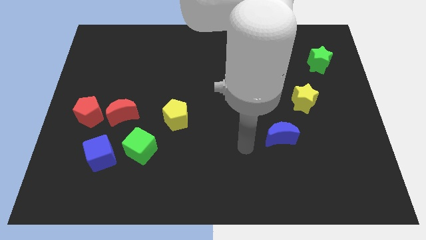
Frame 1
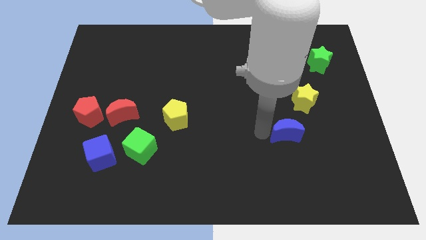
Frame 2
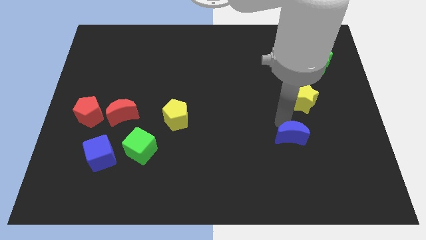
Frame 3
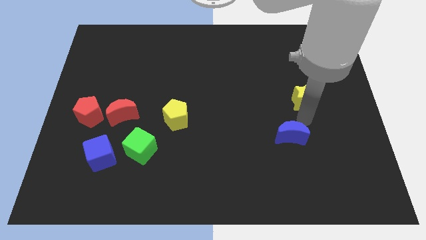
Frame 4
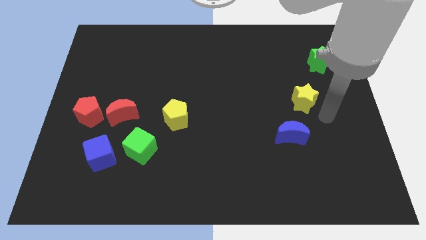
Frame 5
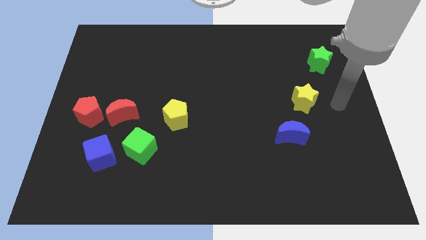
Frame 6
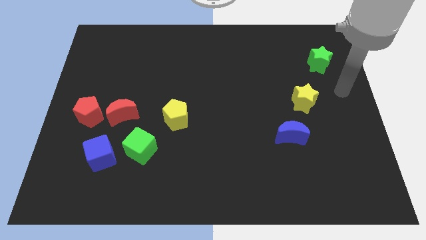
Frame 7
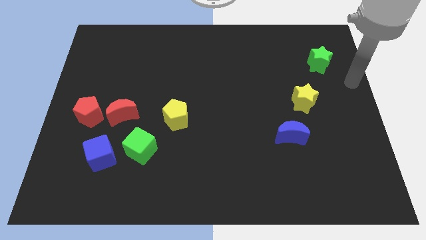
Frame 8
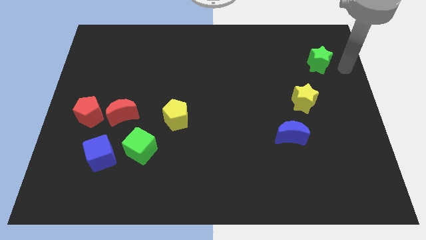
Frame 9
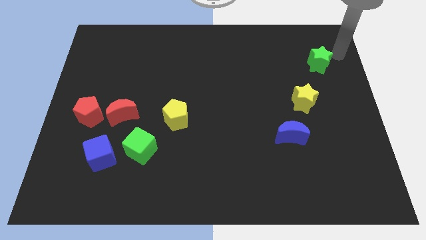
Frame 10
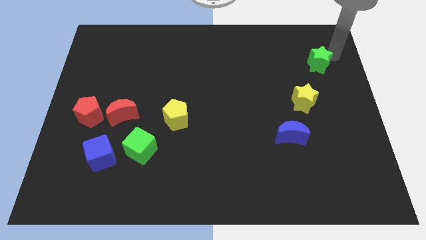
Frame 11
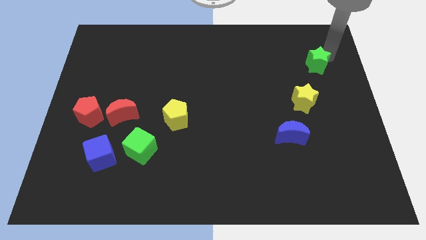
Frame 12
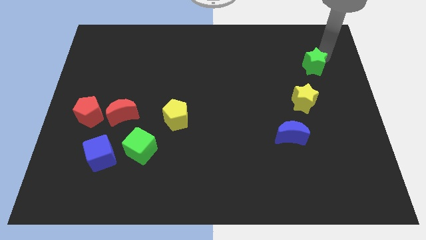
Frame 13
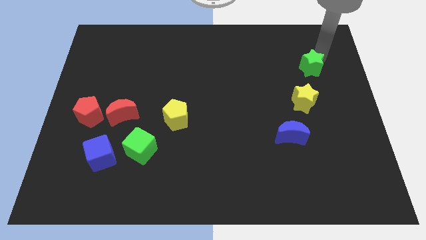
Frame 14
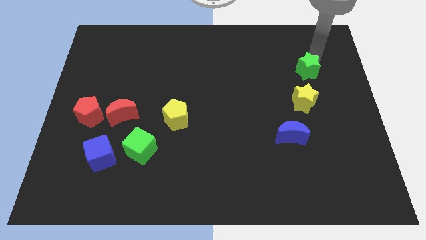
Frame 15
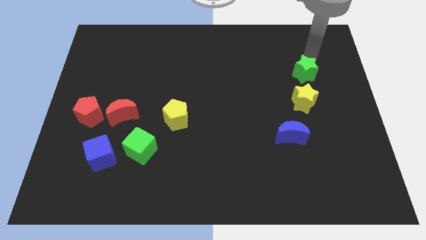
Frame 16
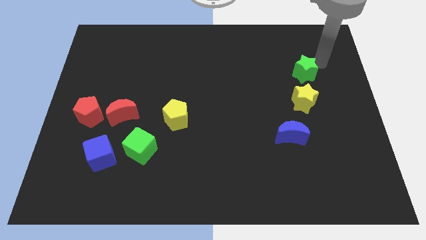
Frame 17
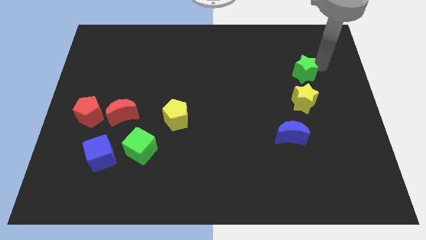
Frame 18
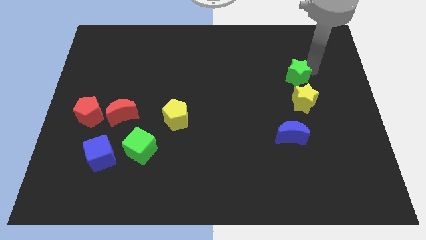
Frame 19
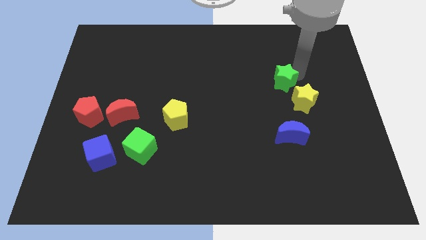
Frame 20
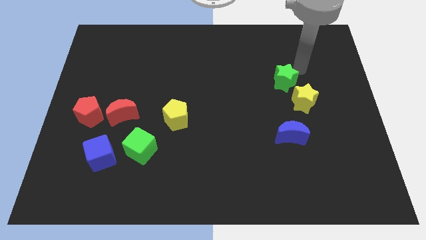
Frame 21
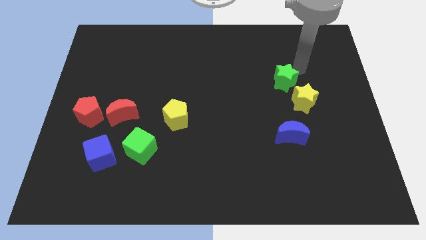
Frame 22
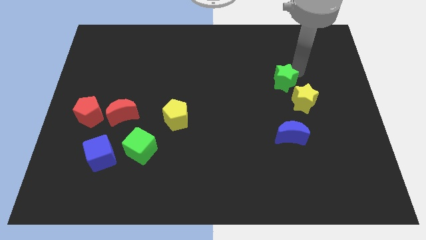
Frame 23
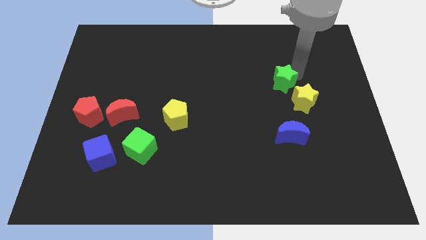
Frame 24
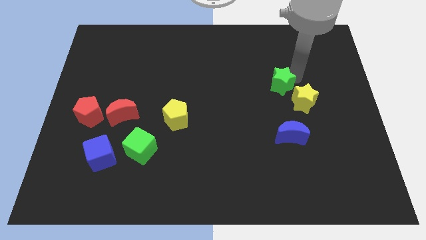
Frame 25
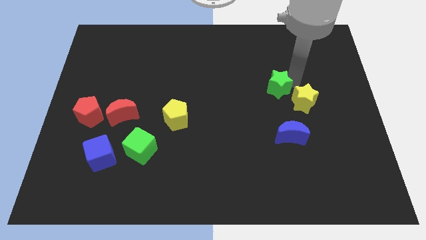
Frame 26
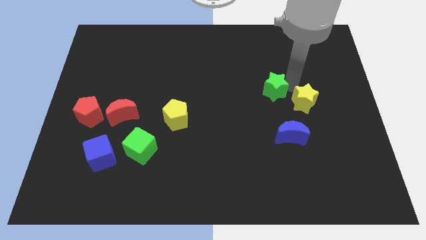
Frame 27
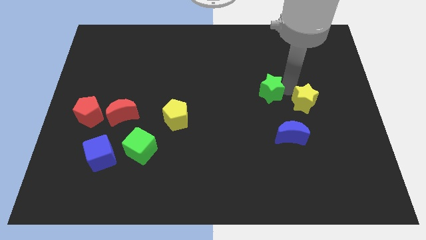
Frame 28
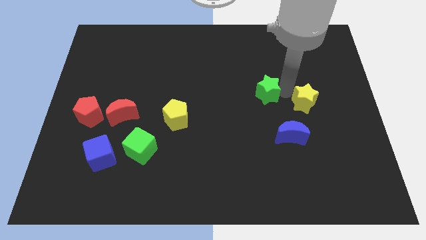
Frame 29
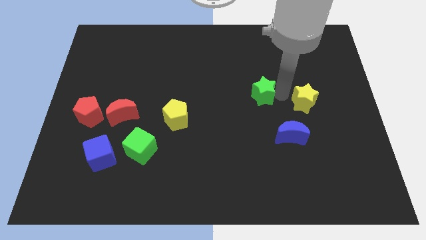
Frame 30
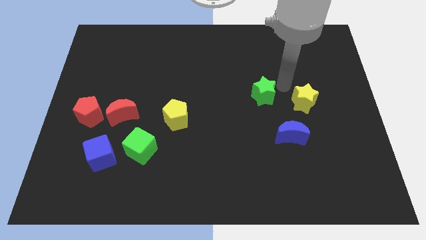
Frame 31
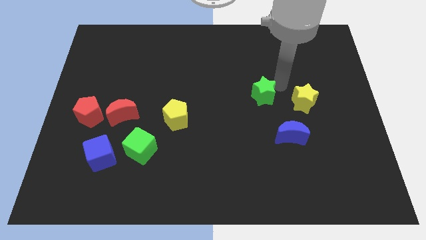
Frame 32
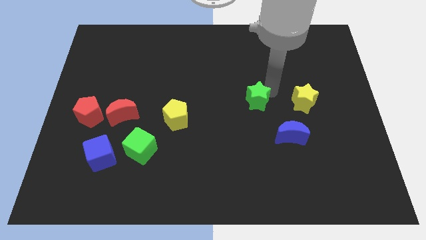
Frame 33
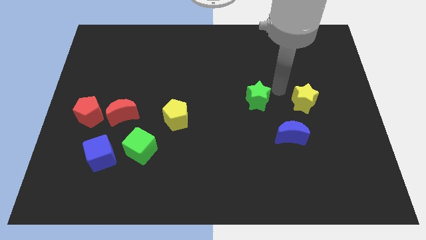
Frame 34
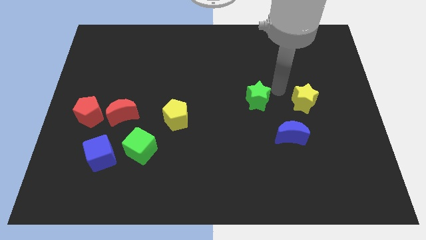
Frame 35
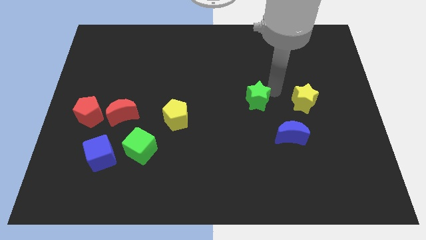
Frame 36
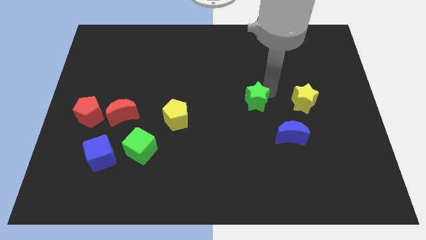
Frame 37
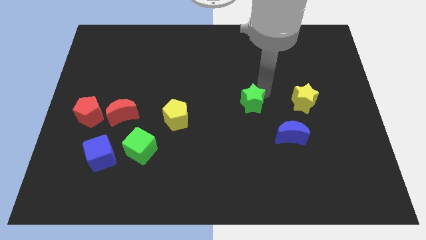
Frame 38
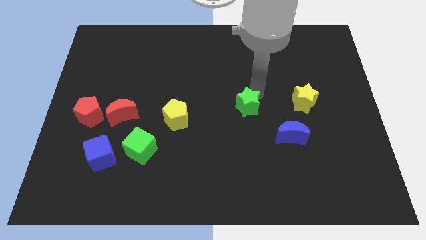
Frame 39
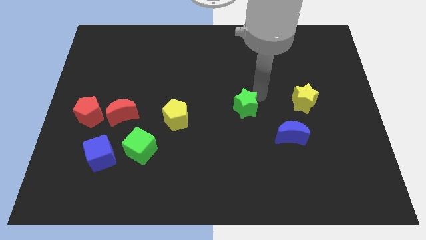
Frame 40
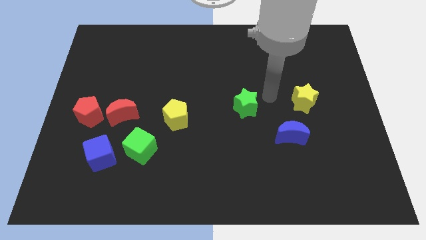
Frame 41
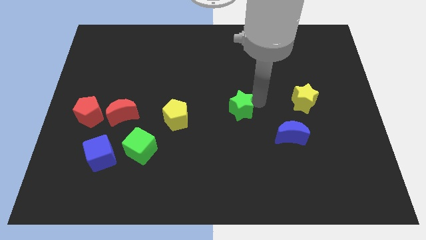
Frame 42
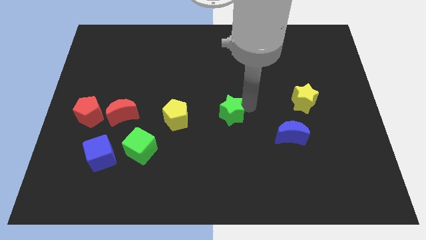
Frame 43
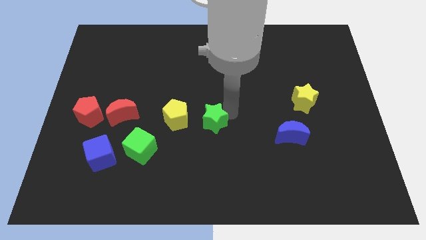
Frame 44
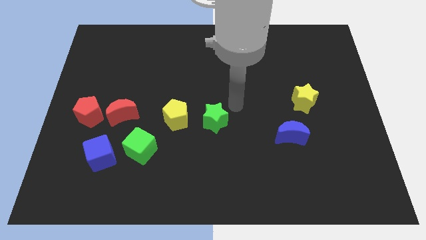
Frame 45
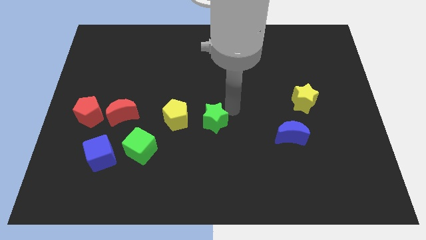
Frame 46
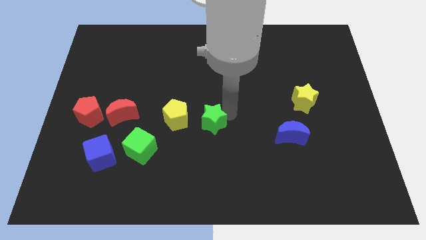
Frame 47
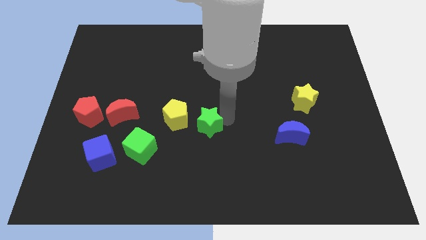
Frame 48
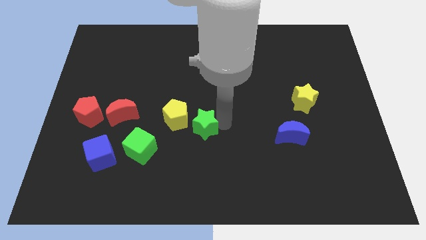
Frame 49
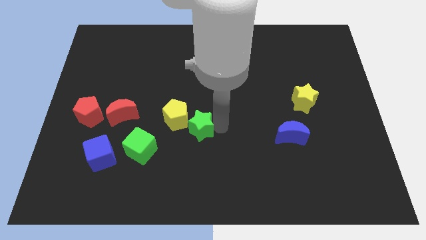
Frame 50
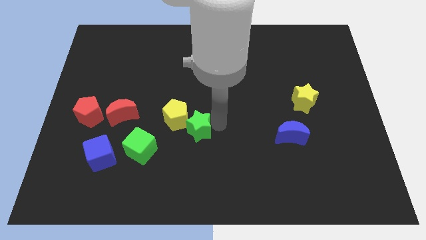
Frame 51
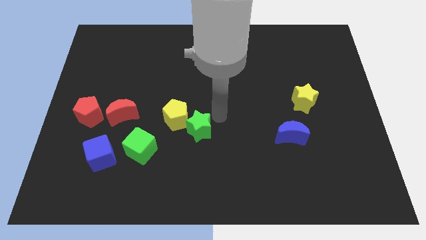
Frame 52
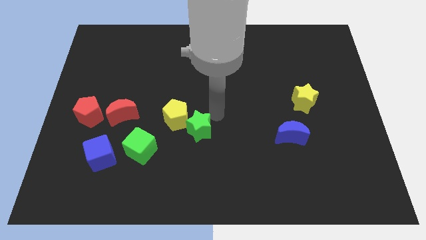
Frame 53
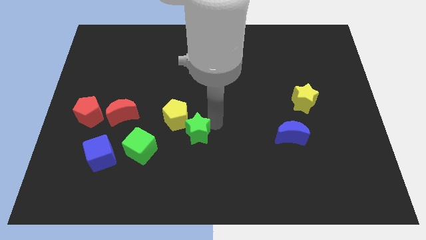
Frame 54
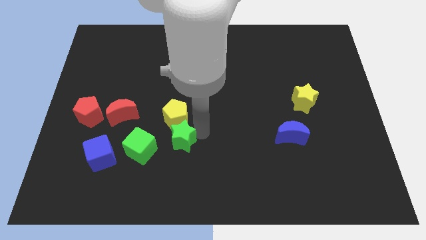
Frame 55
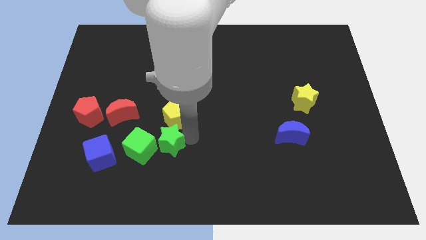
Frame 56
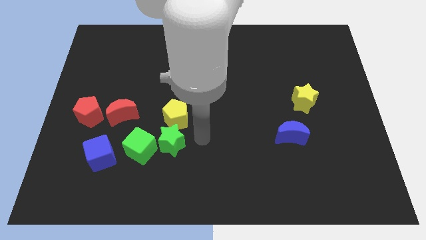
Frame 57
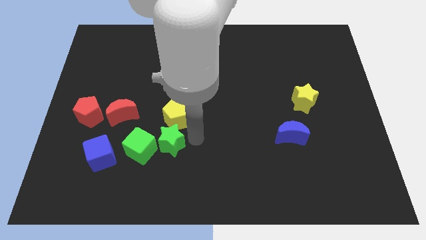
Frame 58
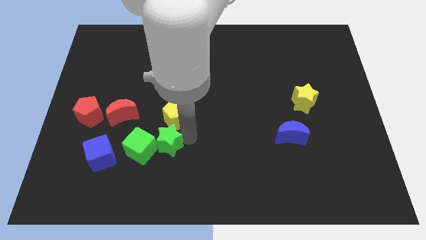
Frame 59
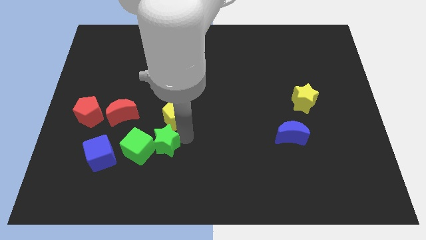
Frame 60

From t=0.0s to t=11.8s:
push the green star close to the green cube
